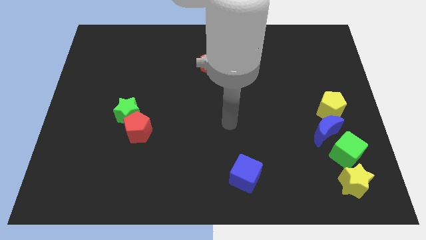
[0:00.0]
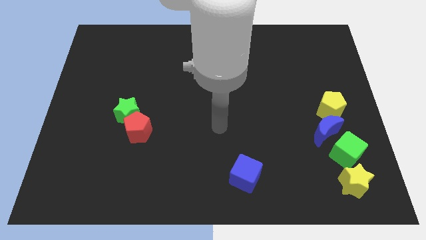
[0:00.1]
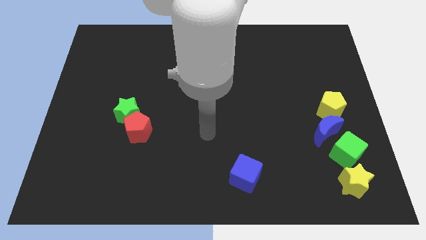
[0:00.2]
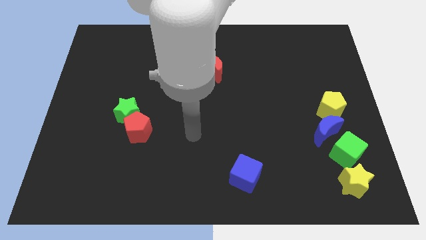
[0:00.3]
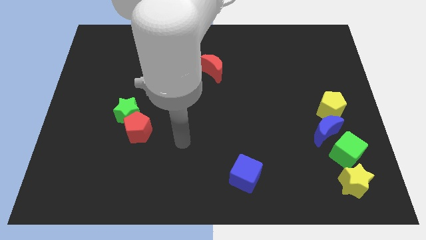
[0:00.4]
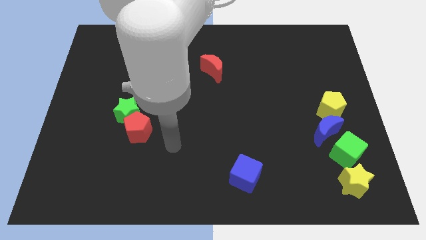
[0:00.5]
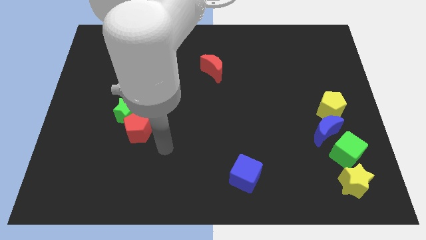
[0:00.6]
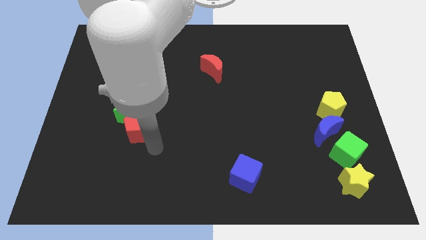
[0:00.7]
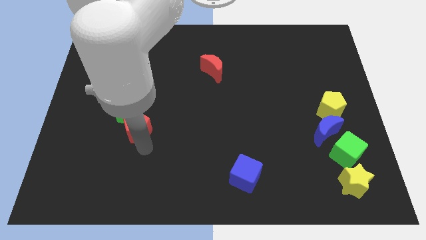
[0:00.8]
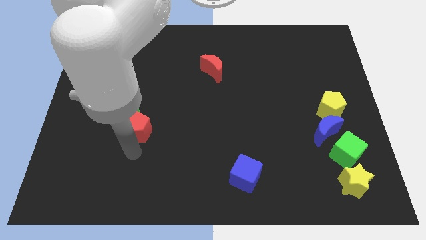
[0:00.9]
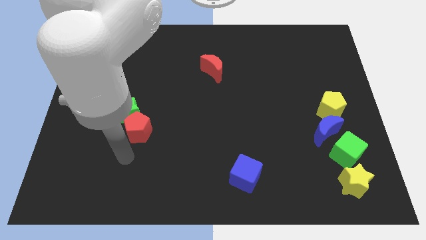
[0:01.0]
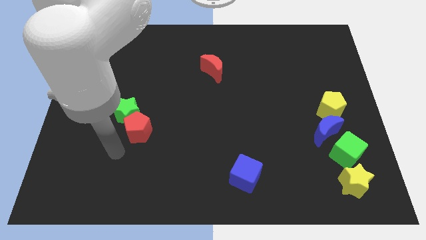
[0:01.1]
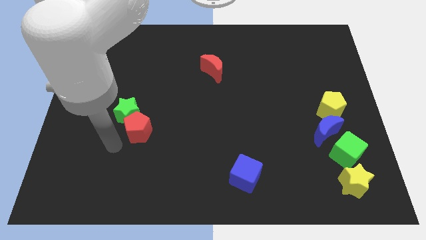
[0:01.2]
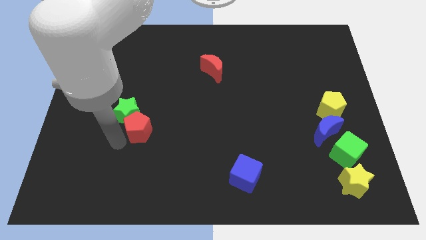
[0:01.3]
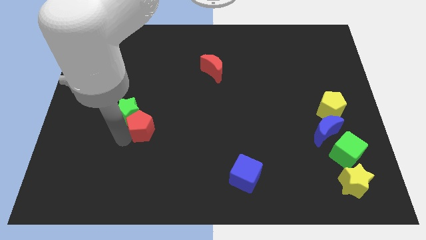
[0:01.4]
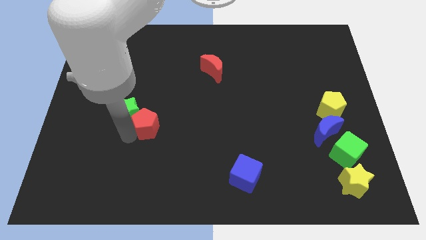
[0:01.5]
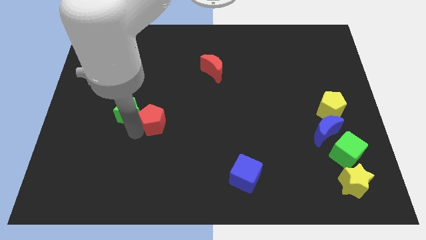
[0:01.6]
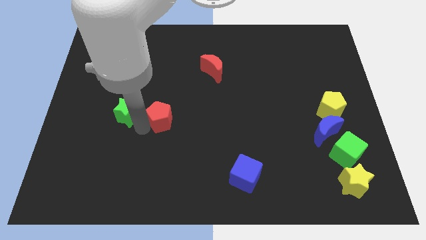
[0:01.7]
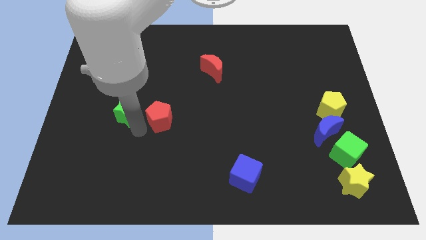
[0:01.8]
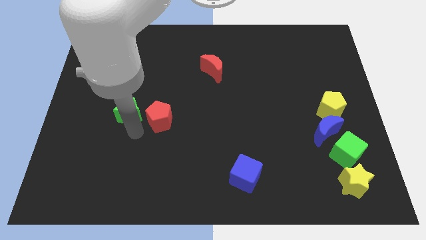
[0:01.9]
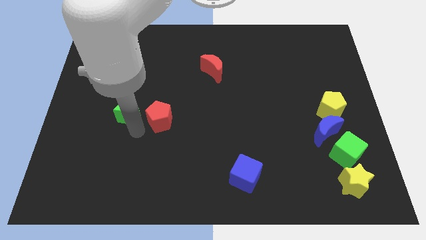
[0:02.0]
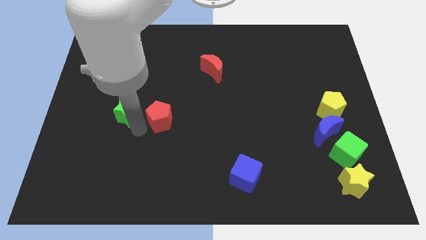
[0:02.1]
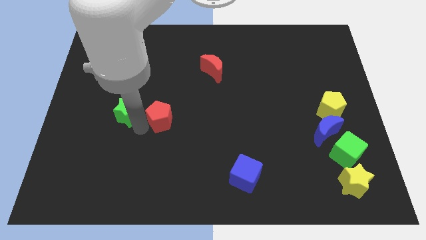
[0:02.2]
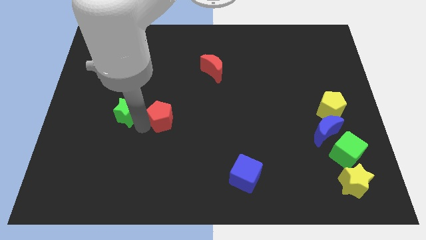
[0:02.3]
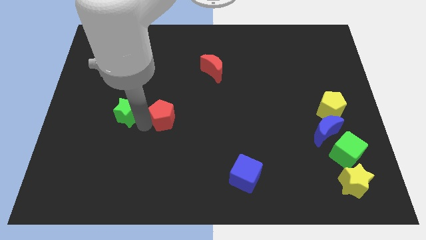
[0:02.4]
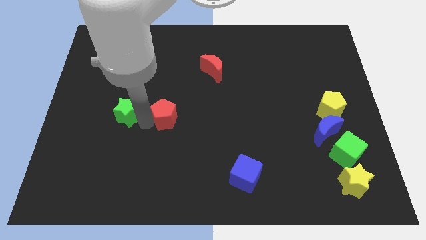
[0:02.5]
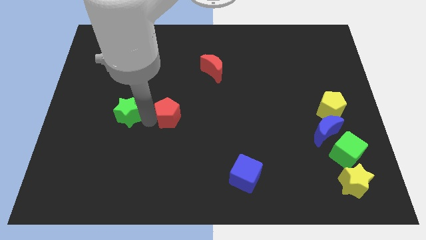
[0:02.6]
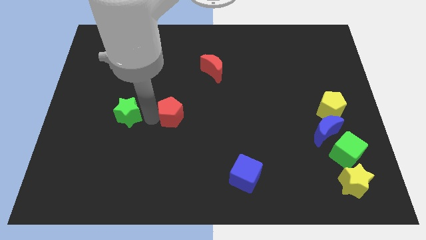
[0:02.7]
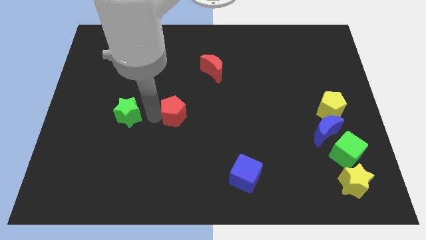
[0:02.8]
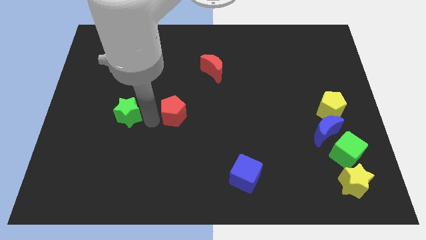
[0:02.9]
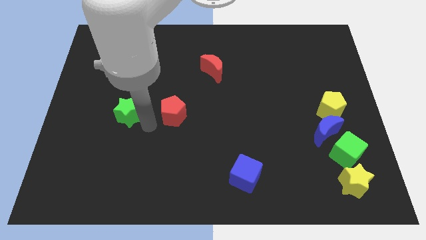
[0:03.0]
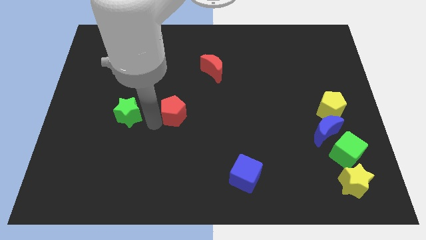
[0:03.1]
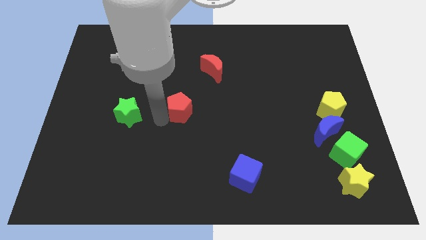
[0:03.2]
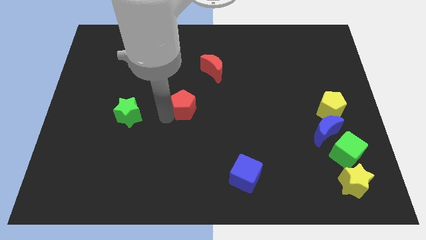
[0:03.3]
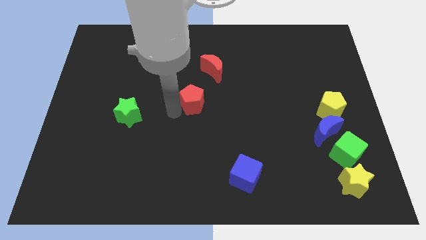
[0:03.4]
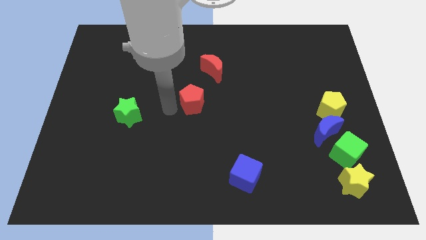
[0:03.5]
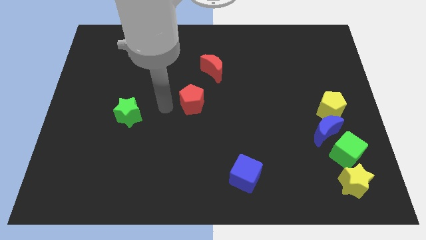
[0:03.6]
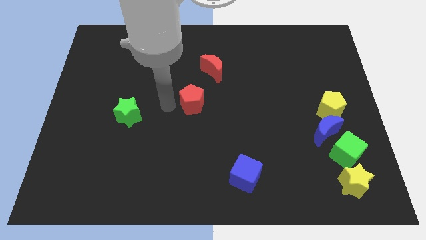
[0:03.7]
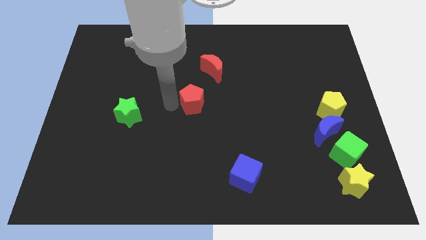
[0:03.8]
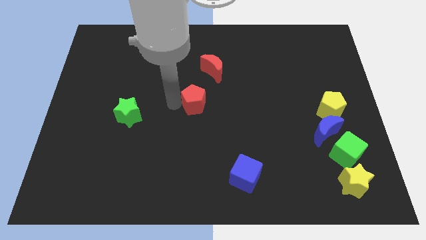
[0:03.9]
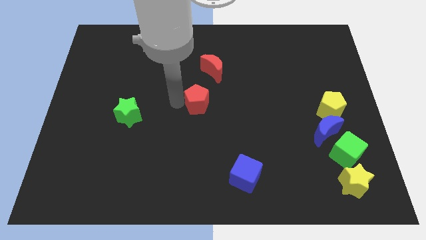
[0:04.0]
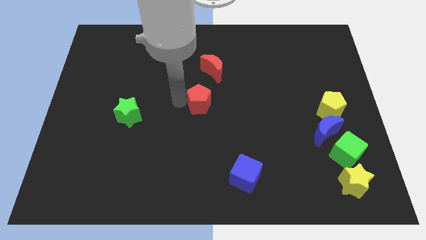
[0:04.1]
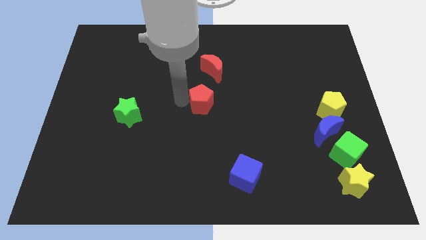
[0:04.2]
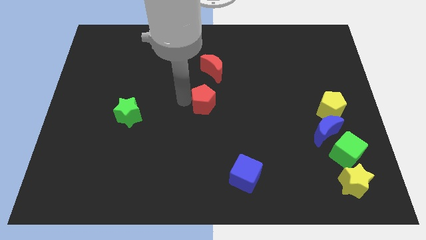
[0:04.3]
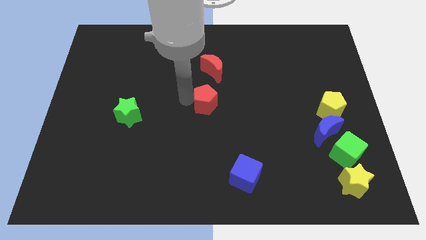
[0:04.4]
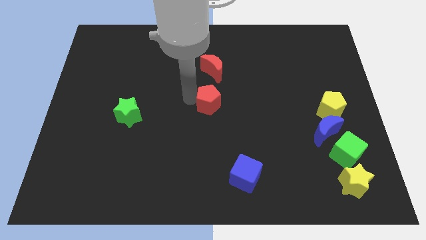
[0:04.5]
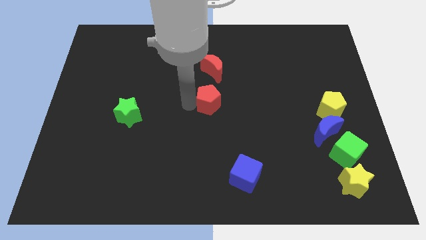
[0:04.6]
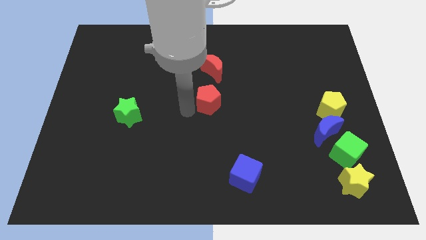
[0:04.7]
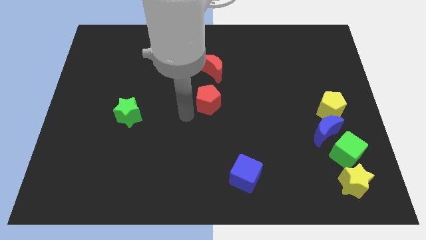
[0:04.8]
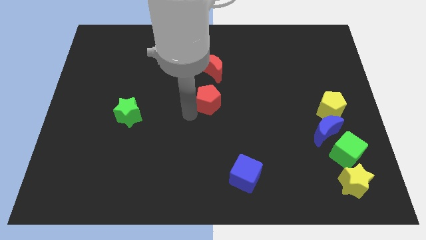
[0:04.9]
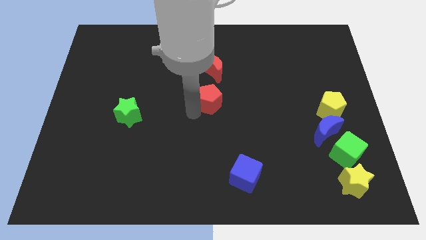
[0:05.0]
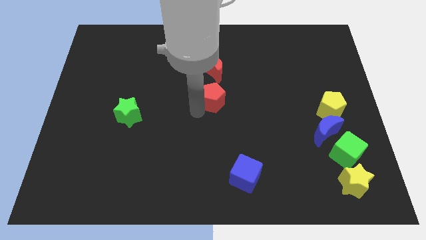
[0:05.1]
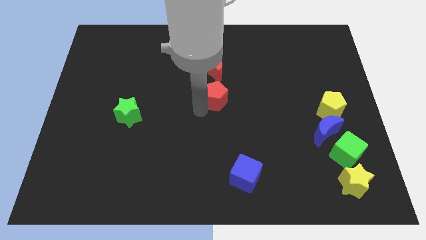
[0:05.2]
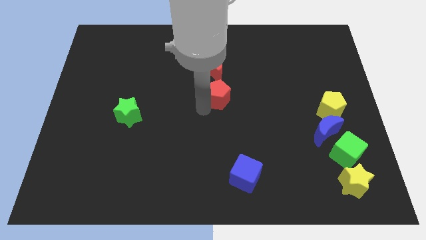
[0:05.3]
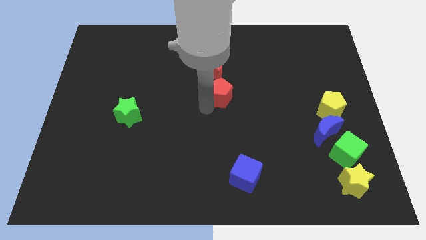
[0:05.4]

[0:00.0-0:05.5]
put the red pentagon diagonally down and to the right of the red moon

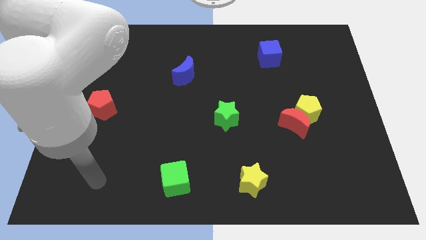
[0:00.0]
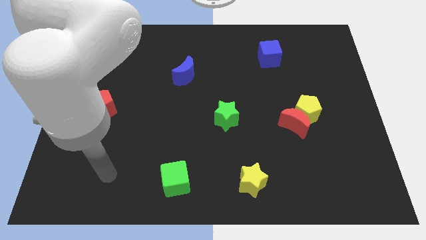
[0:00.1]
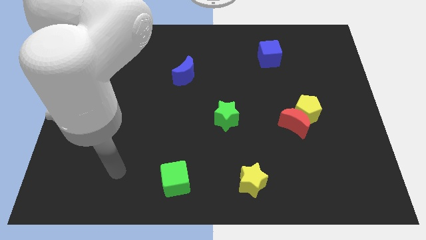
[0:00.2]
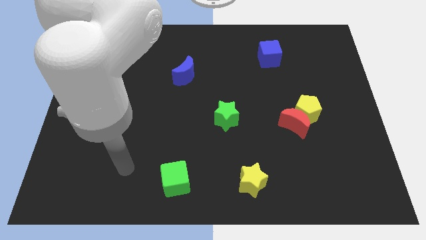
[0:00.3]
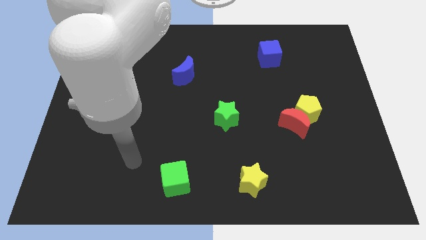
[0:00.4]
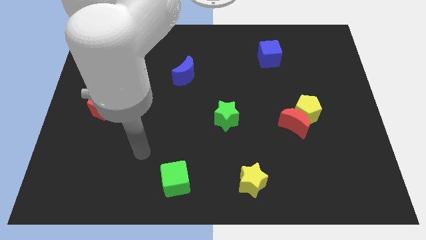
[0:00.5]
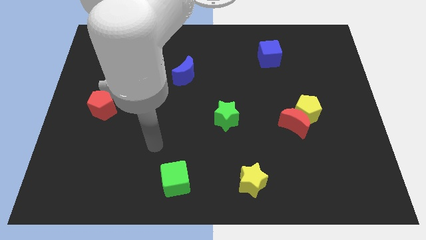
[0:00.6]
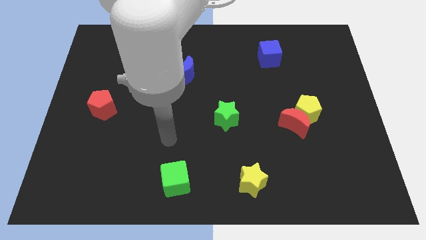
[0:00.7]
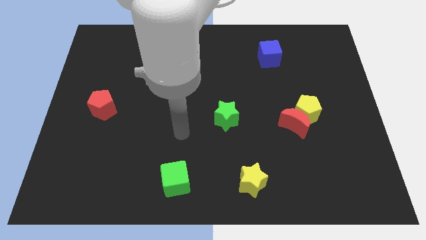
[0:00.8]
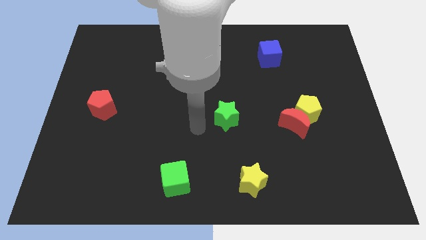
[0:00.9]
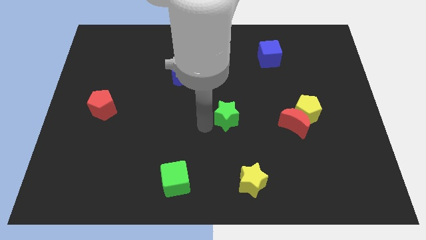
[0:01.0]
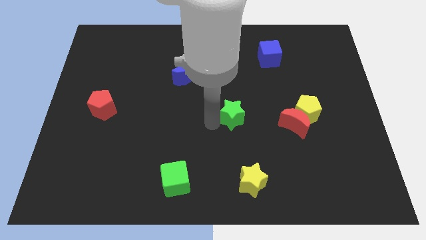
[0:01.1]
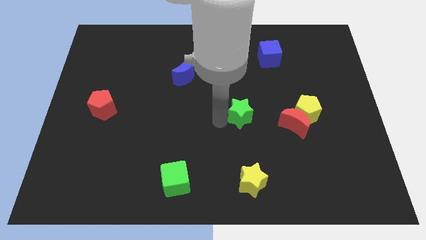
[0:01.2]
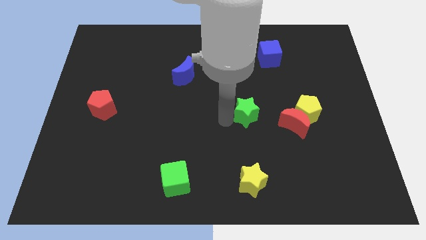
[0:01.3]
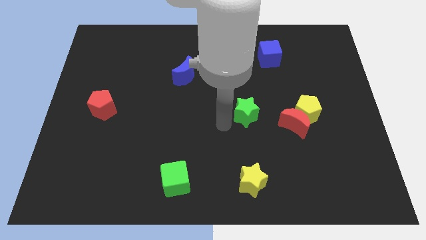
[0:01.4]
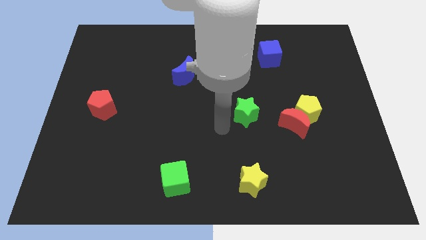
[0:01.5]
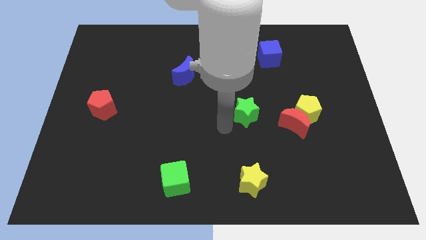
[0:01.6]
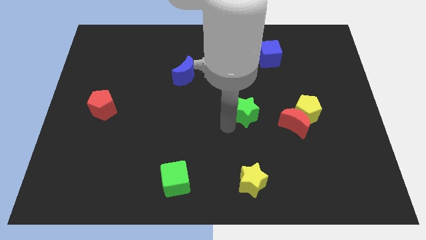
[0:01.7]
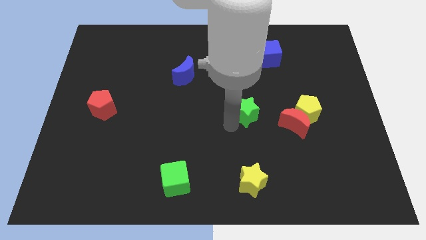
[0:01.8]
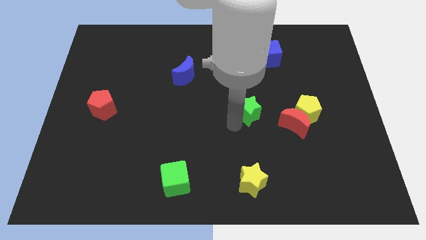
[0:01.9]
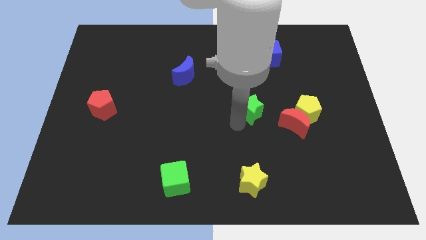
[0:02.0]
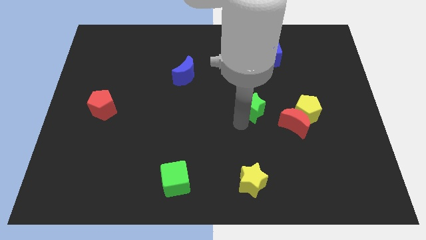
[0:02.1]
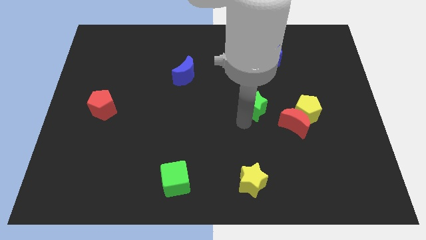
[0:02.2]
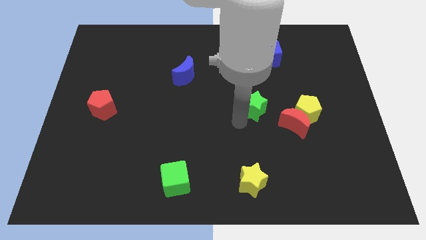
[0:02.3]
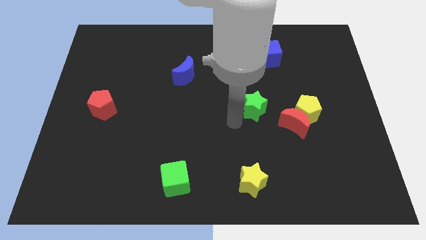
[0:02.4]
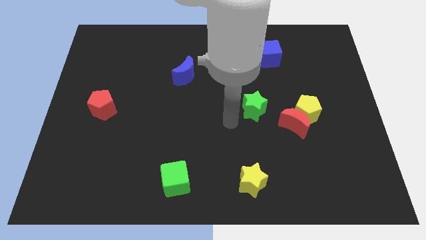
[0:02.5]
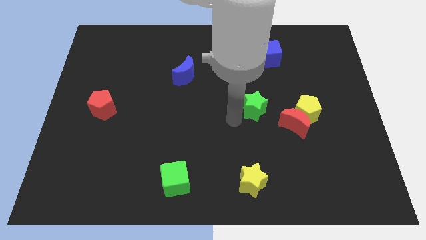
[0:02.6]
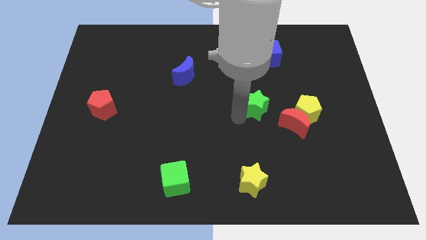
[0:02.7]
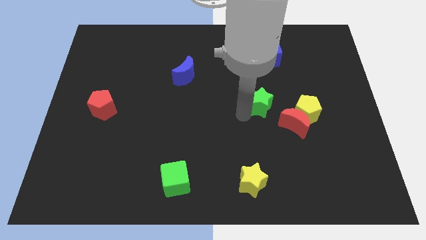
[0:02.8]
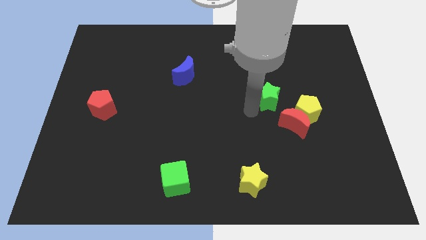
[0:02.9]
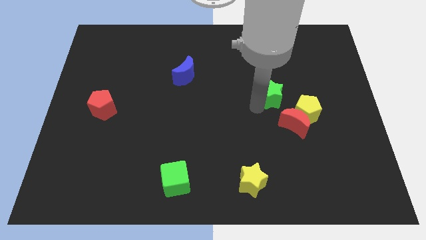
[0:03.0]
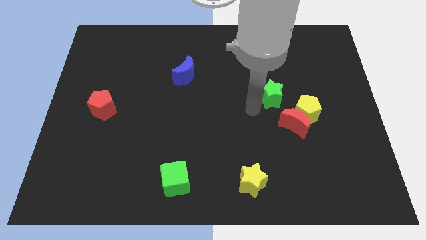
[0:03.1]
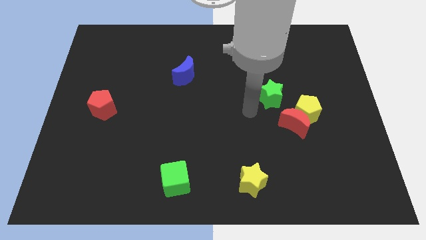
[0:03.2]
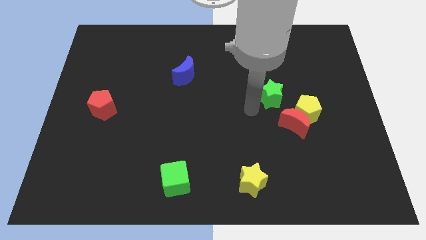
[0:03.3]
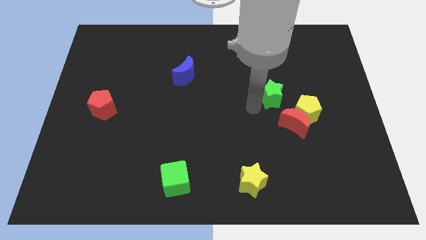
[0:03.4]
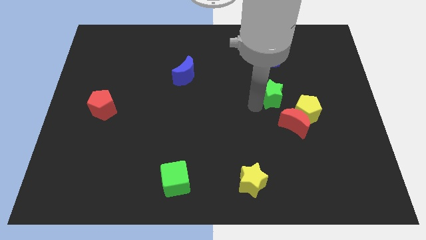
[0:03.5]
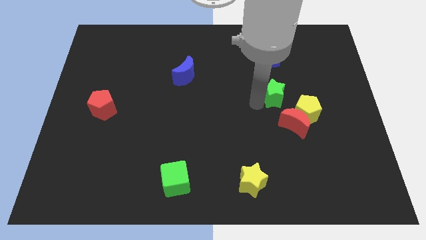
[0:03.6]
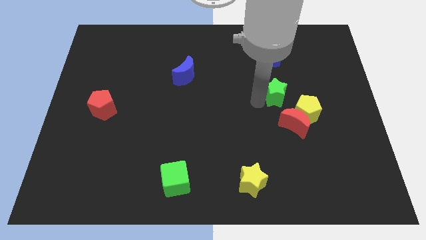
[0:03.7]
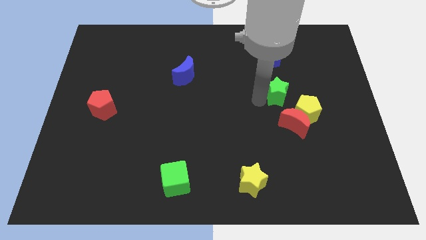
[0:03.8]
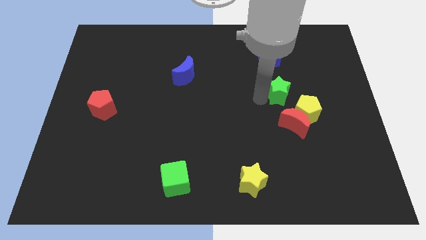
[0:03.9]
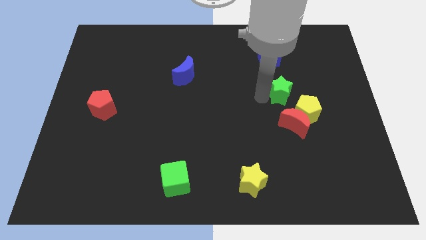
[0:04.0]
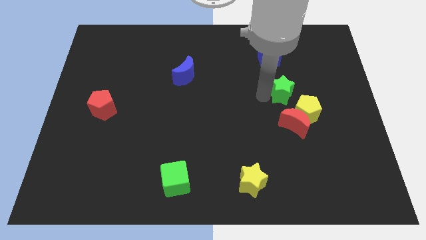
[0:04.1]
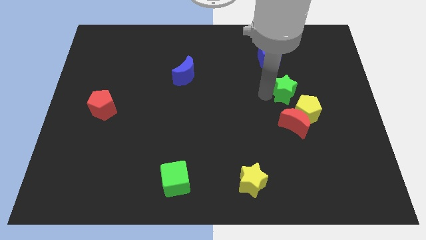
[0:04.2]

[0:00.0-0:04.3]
put the green star above the yellow pentagon
